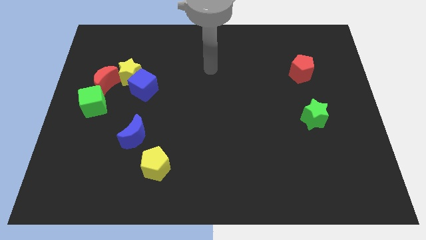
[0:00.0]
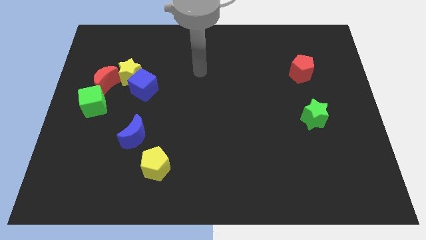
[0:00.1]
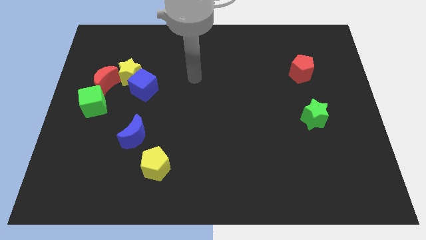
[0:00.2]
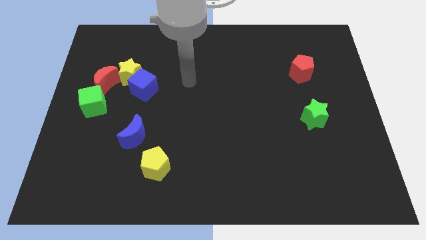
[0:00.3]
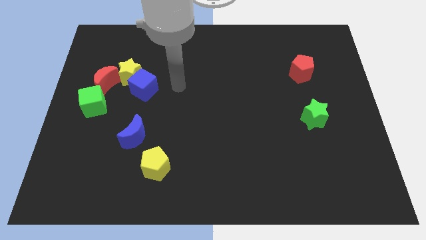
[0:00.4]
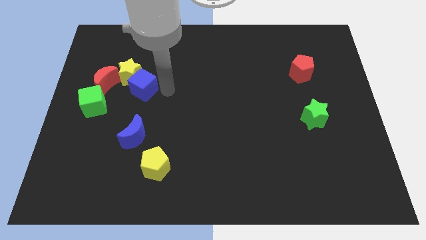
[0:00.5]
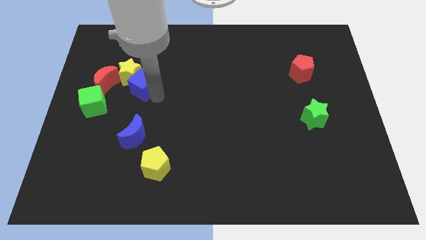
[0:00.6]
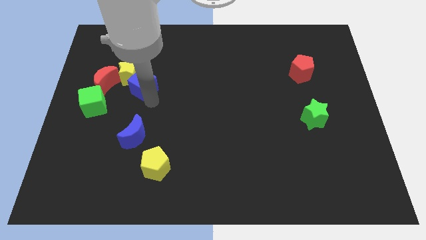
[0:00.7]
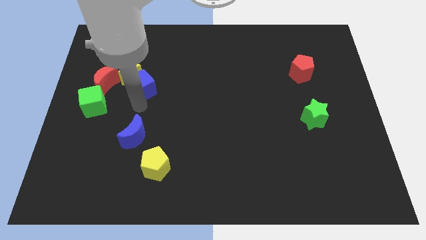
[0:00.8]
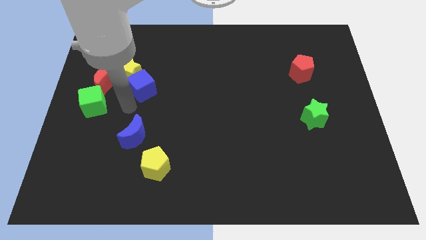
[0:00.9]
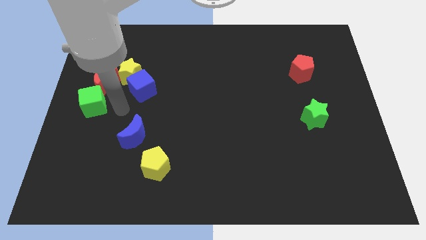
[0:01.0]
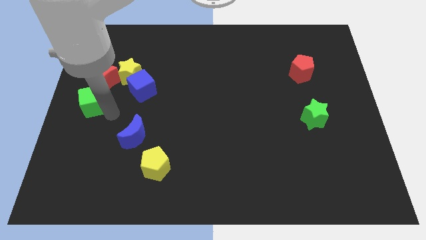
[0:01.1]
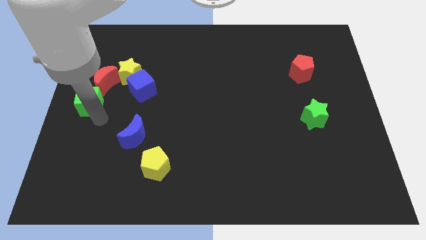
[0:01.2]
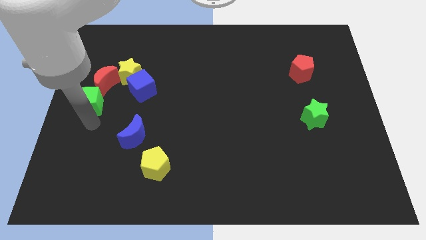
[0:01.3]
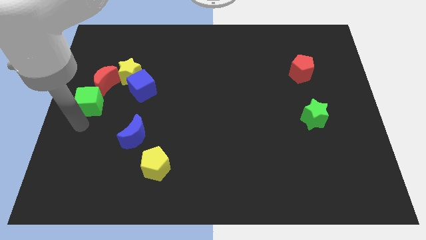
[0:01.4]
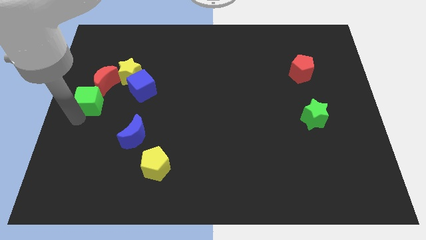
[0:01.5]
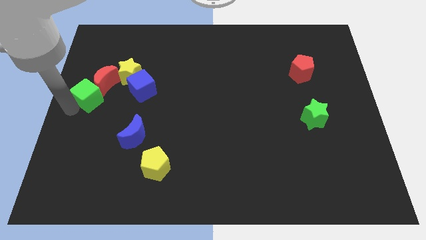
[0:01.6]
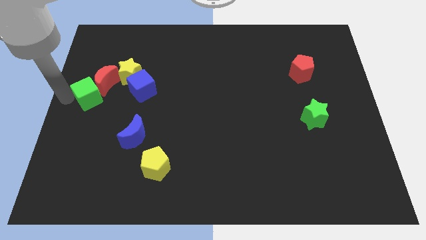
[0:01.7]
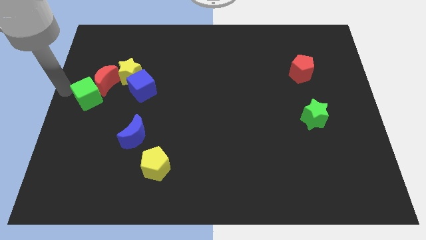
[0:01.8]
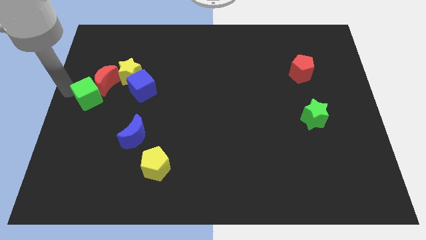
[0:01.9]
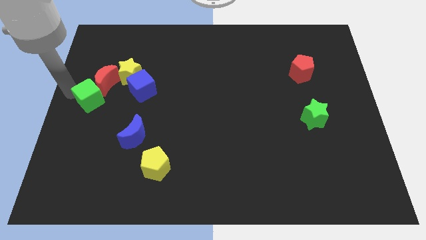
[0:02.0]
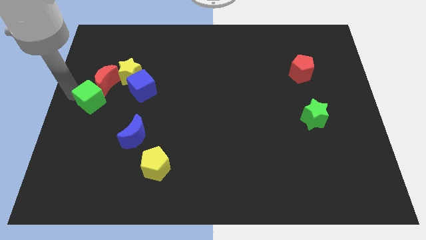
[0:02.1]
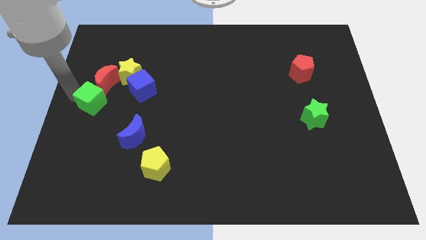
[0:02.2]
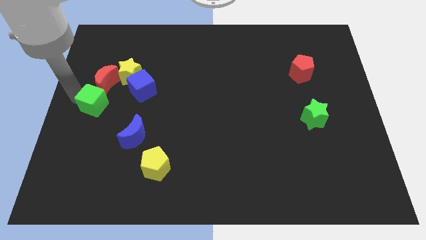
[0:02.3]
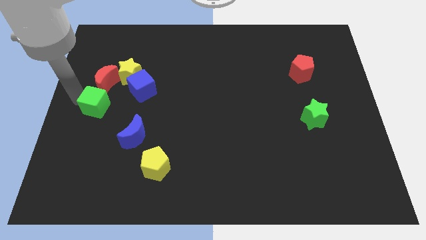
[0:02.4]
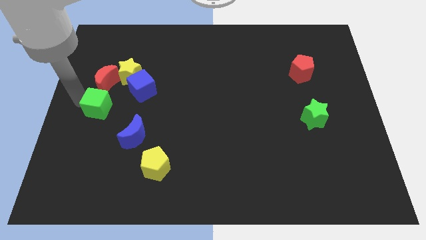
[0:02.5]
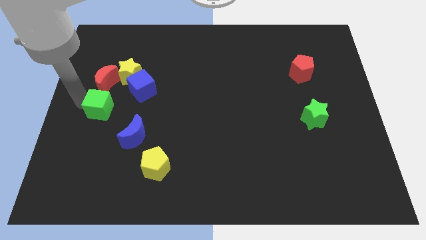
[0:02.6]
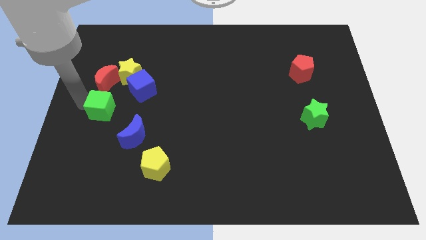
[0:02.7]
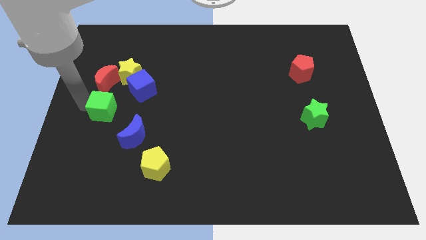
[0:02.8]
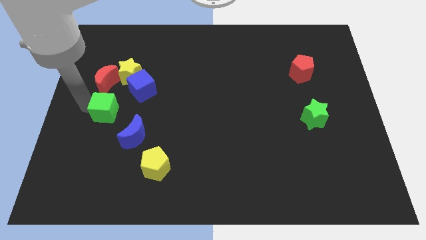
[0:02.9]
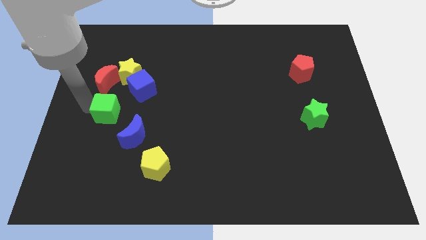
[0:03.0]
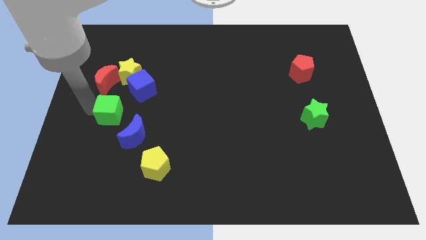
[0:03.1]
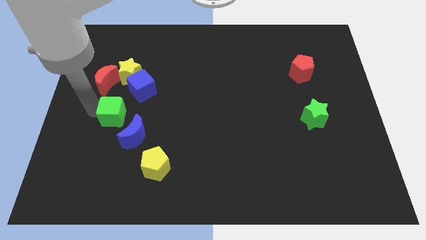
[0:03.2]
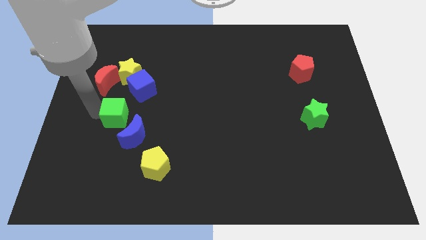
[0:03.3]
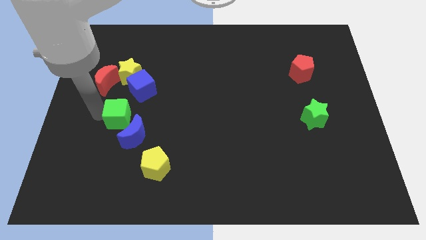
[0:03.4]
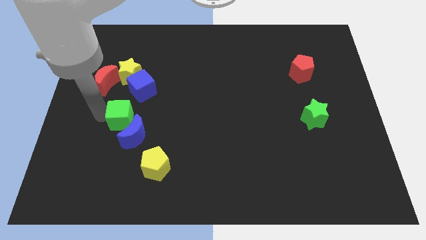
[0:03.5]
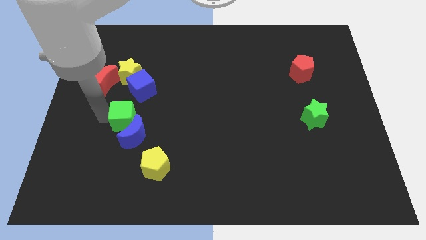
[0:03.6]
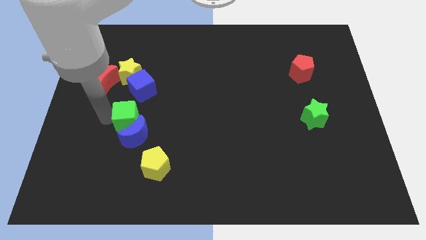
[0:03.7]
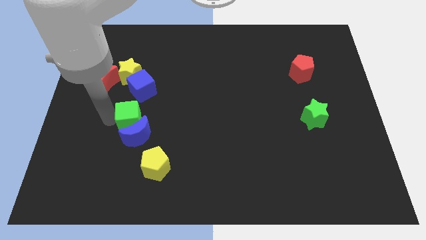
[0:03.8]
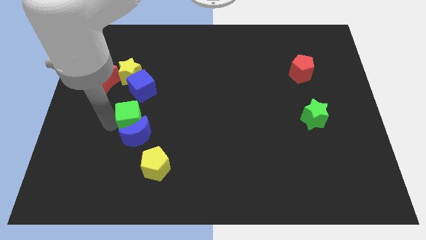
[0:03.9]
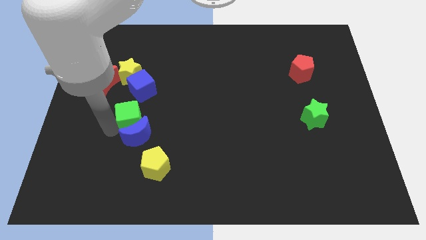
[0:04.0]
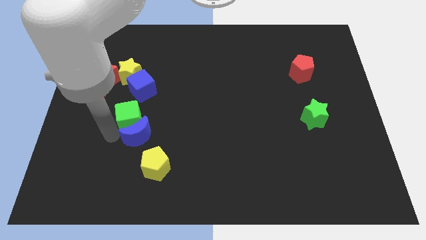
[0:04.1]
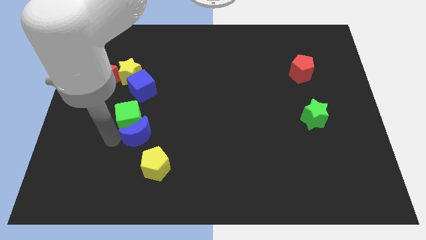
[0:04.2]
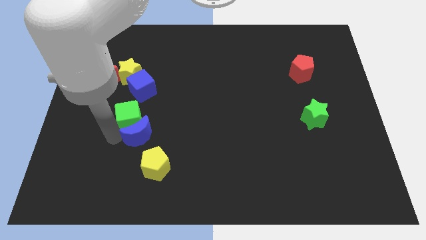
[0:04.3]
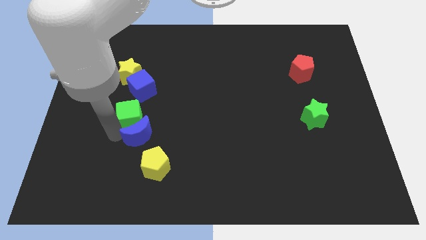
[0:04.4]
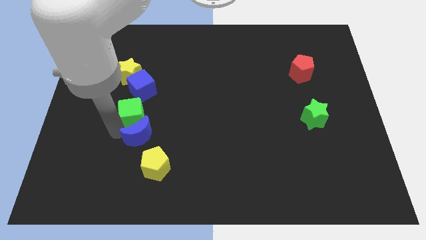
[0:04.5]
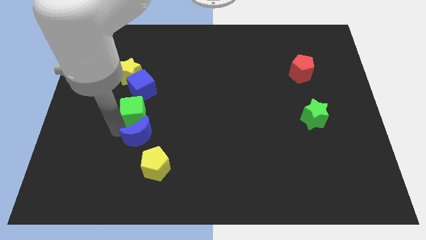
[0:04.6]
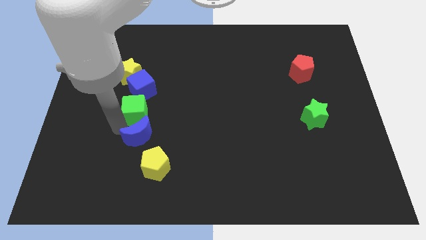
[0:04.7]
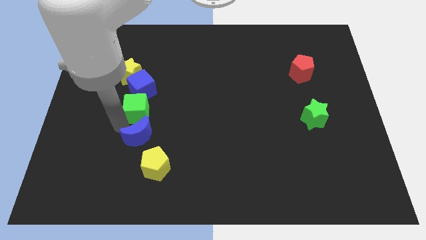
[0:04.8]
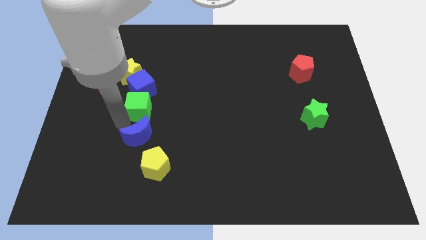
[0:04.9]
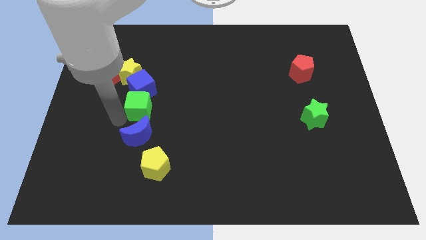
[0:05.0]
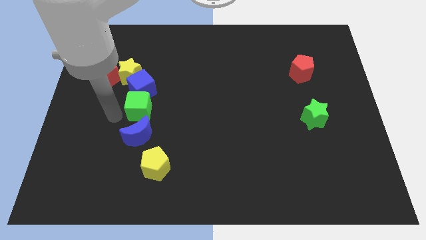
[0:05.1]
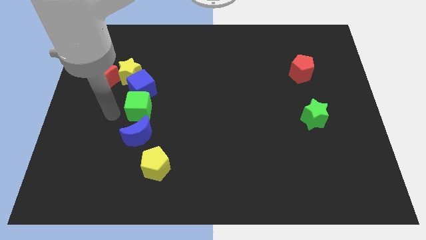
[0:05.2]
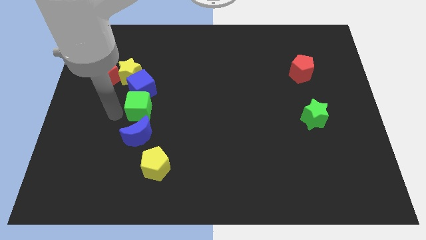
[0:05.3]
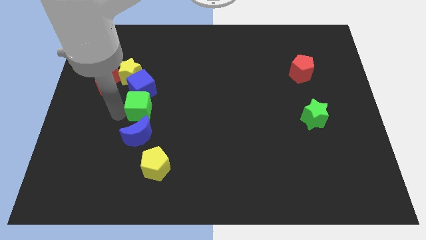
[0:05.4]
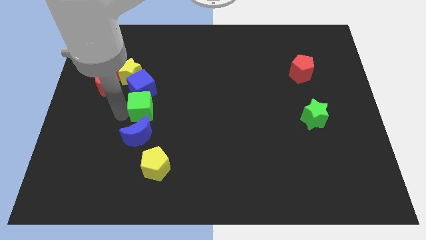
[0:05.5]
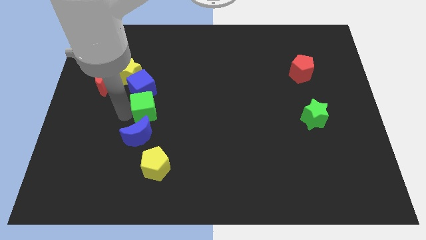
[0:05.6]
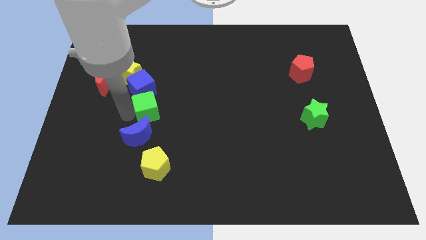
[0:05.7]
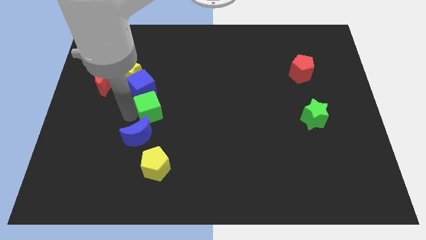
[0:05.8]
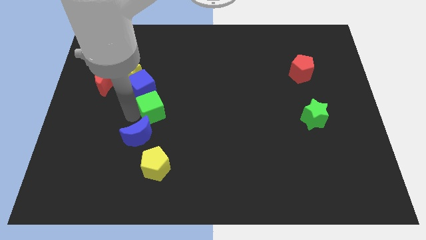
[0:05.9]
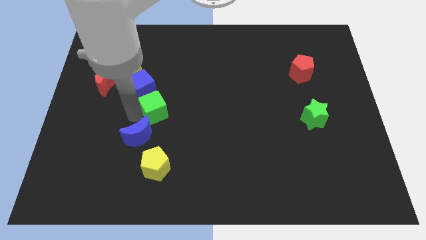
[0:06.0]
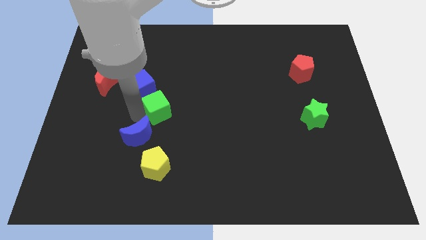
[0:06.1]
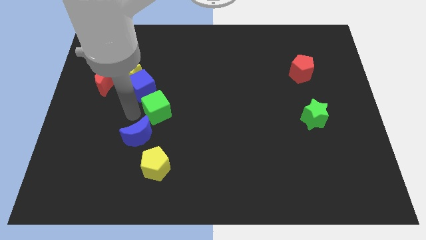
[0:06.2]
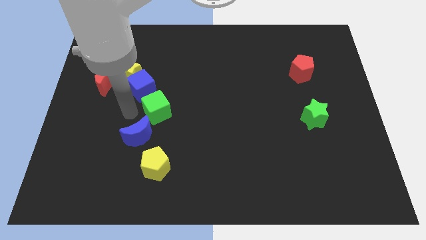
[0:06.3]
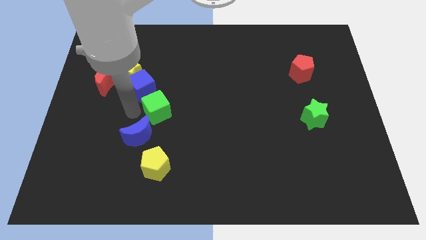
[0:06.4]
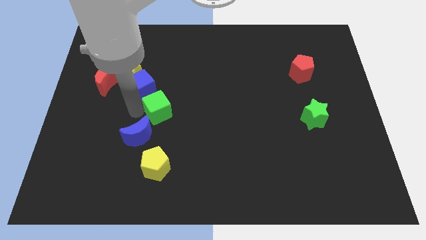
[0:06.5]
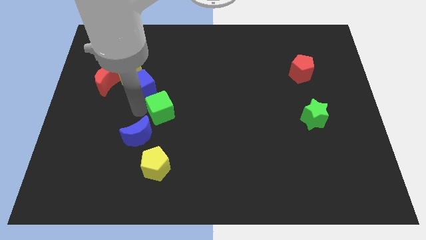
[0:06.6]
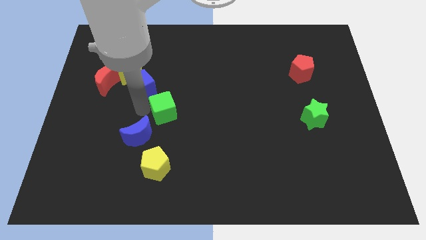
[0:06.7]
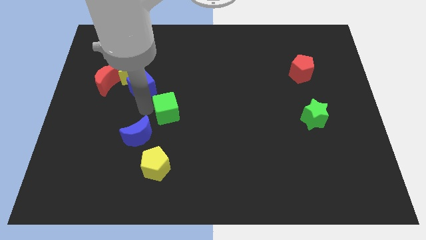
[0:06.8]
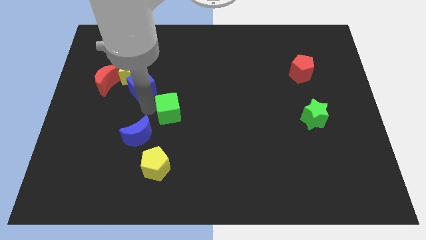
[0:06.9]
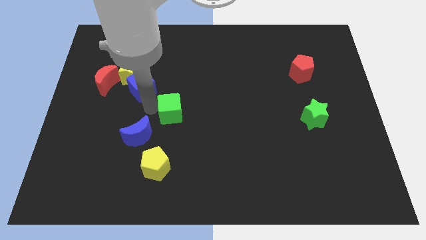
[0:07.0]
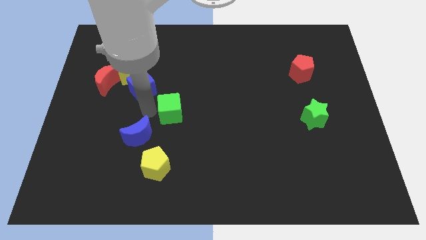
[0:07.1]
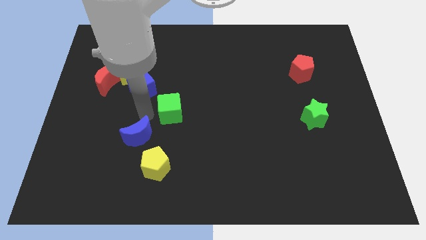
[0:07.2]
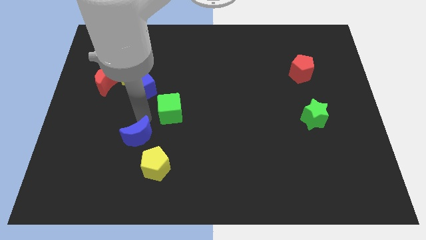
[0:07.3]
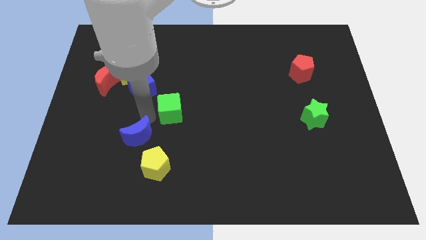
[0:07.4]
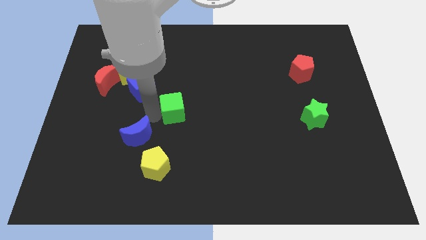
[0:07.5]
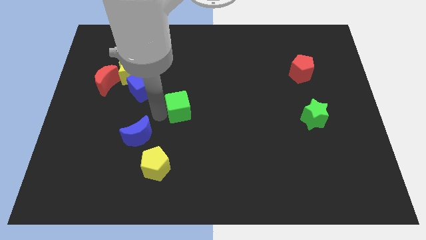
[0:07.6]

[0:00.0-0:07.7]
push the green cube to the right

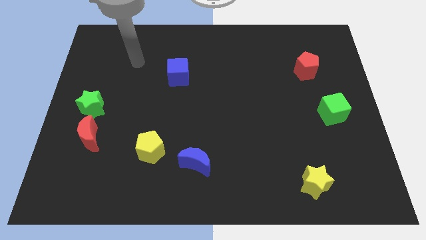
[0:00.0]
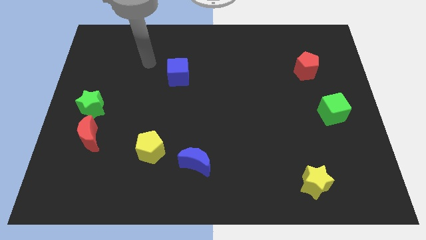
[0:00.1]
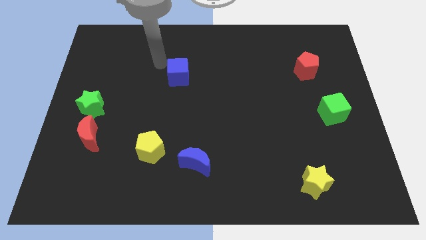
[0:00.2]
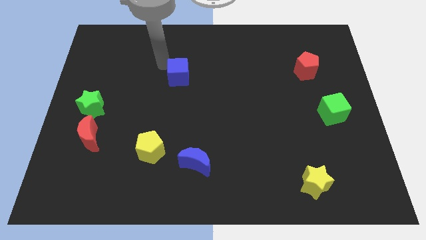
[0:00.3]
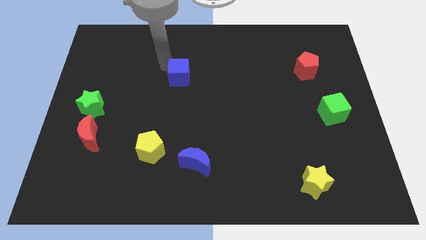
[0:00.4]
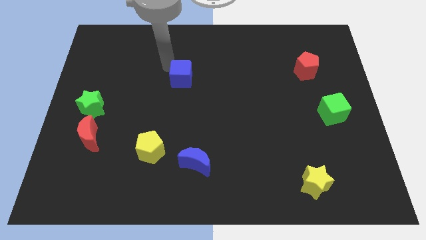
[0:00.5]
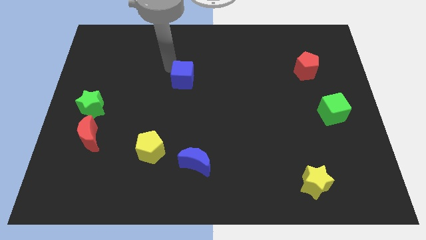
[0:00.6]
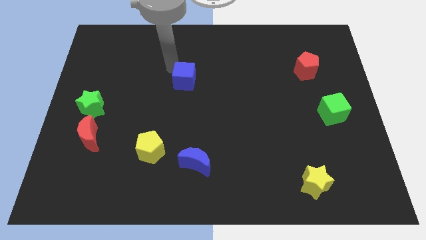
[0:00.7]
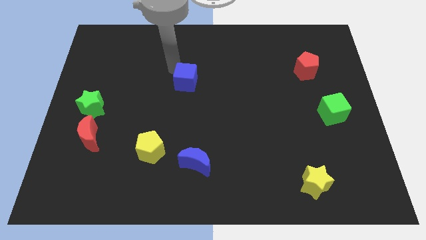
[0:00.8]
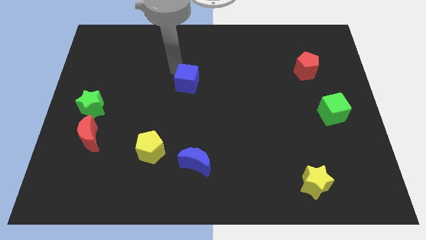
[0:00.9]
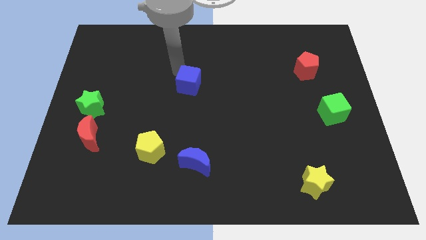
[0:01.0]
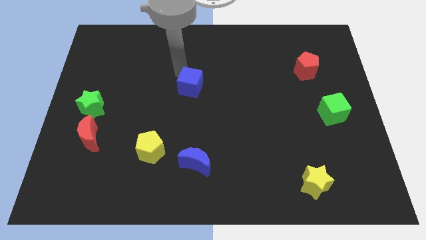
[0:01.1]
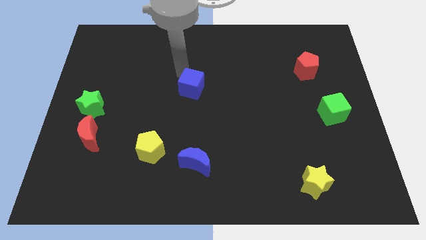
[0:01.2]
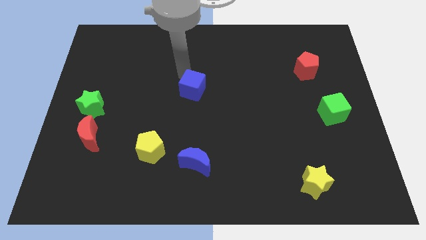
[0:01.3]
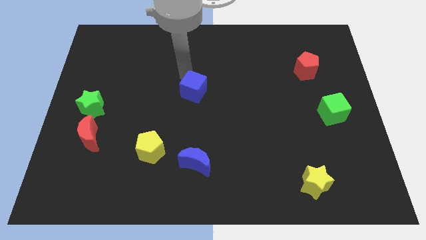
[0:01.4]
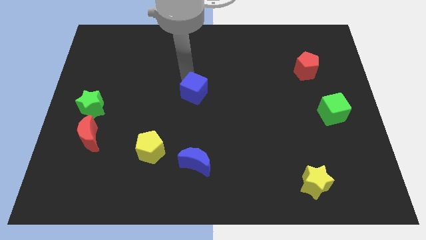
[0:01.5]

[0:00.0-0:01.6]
move the blue cube diagonally downwards and to the right somewhat
